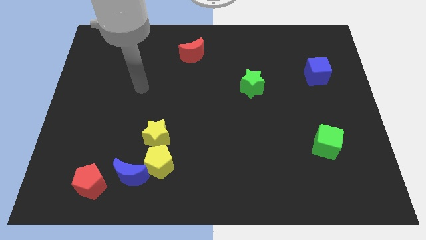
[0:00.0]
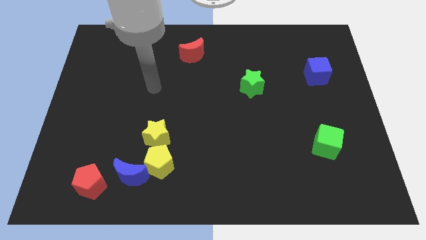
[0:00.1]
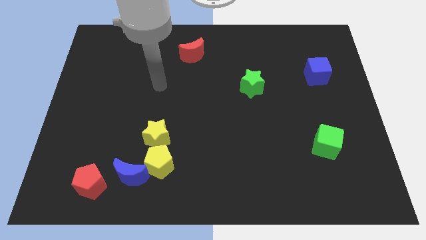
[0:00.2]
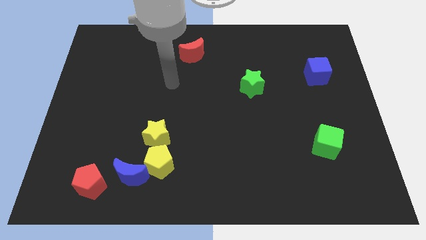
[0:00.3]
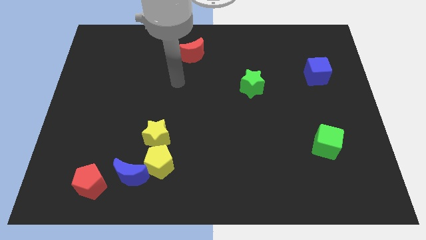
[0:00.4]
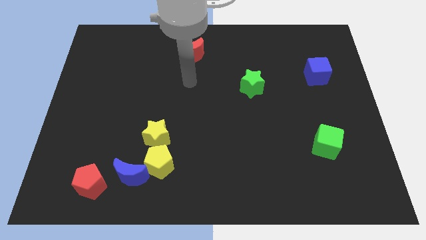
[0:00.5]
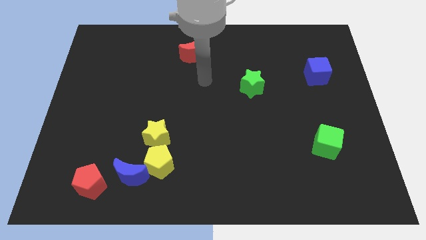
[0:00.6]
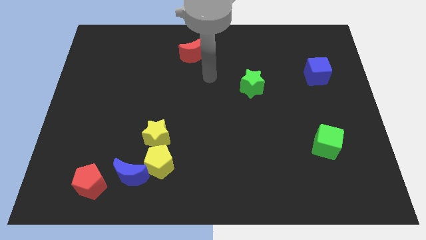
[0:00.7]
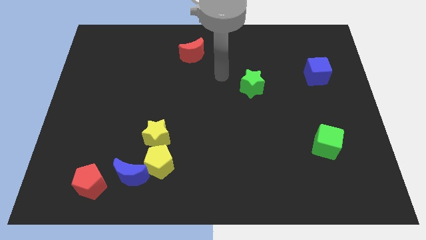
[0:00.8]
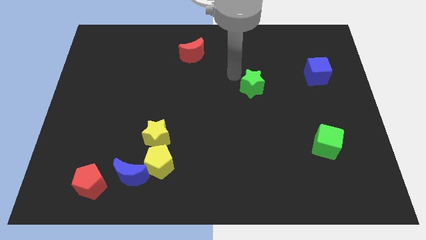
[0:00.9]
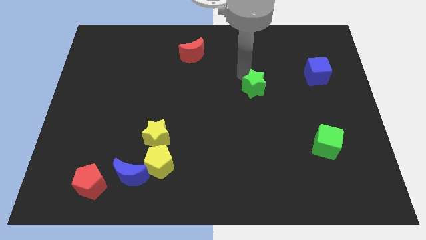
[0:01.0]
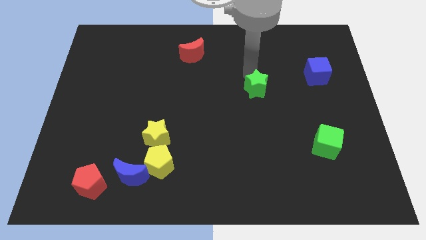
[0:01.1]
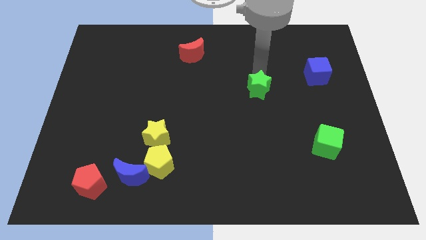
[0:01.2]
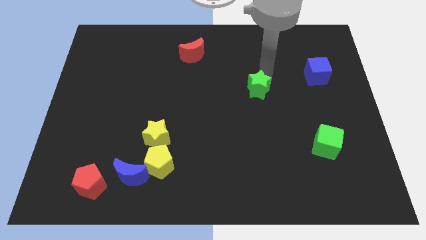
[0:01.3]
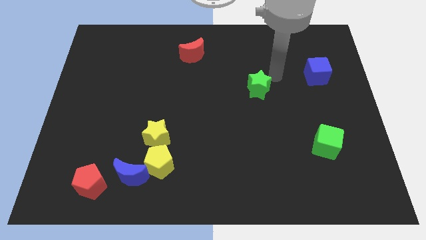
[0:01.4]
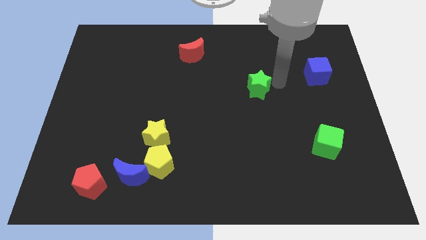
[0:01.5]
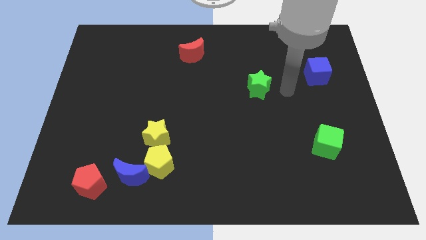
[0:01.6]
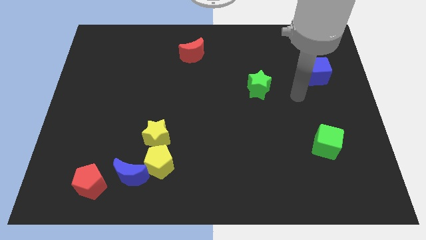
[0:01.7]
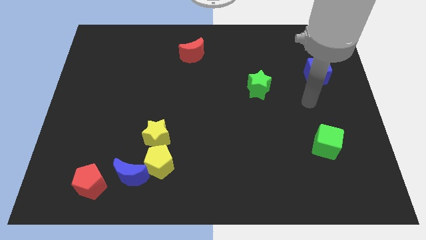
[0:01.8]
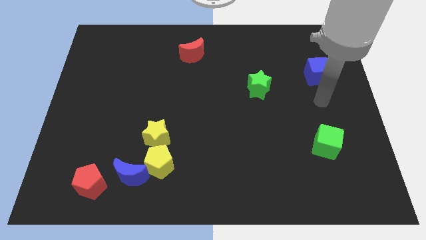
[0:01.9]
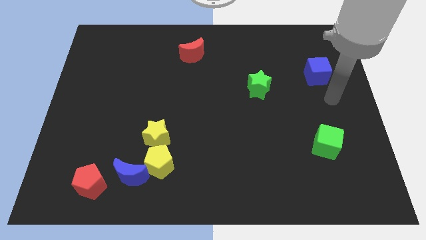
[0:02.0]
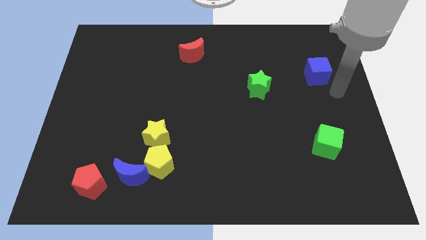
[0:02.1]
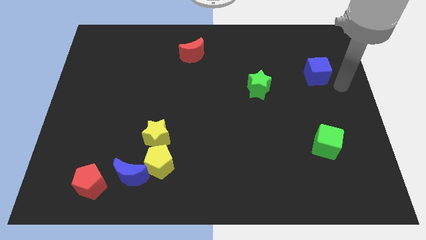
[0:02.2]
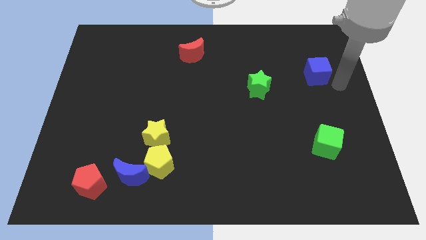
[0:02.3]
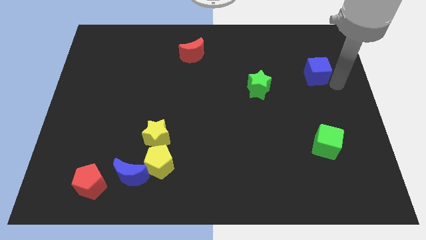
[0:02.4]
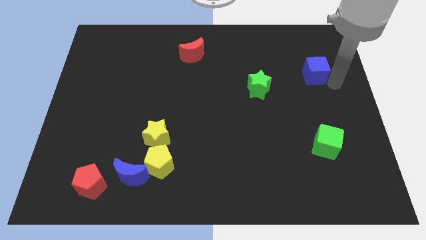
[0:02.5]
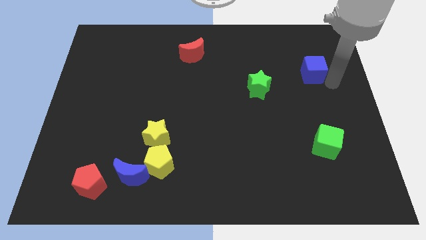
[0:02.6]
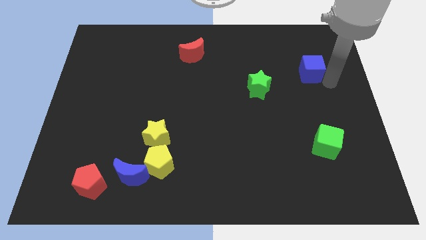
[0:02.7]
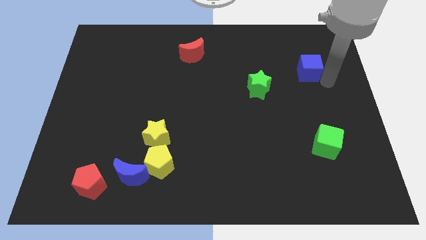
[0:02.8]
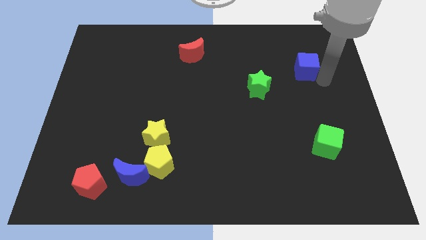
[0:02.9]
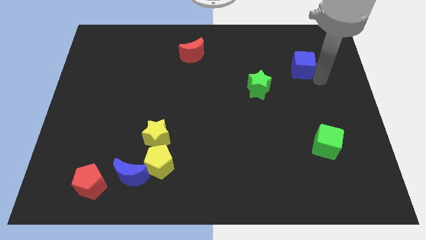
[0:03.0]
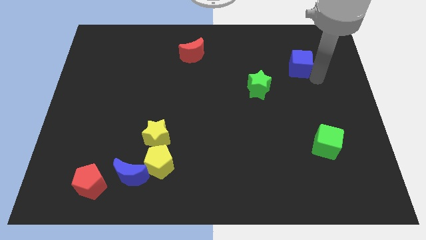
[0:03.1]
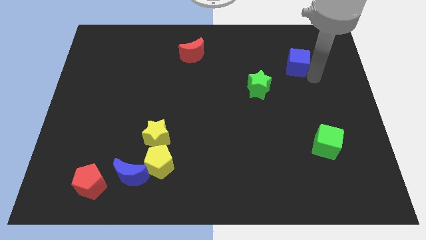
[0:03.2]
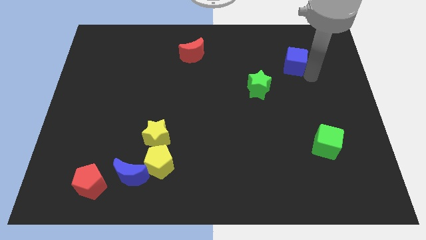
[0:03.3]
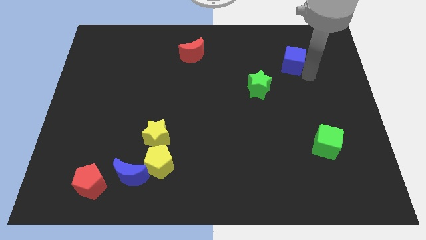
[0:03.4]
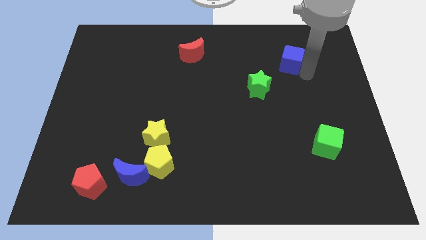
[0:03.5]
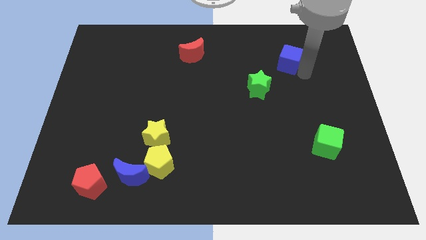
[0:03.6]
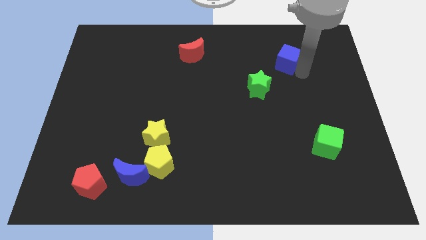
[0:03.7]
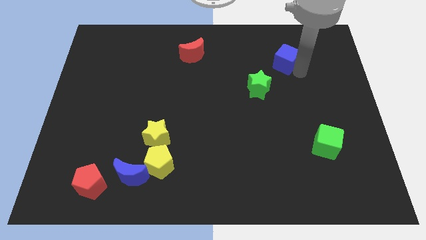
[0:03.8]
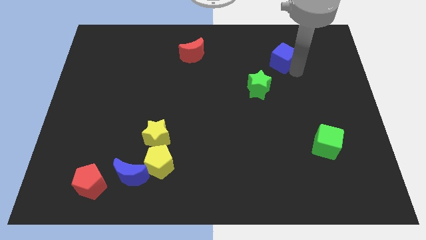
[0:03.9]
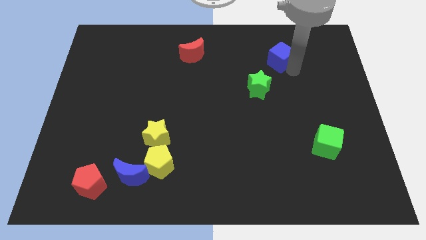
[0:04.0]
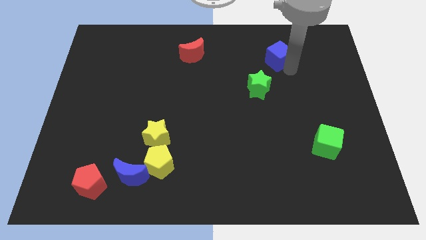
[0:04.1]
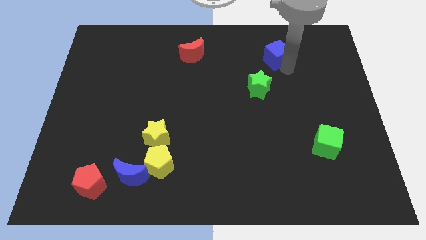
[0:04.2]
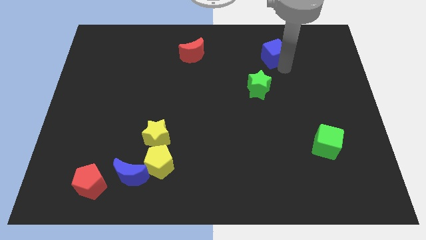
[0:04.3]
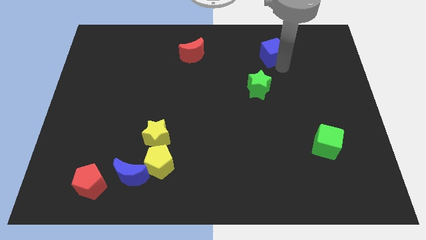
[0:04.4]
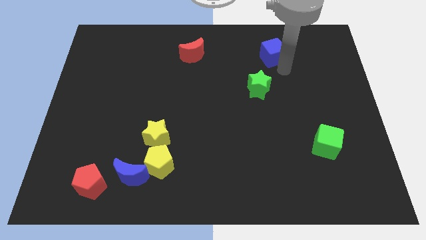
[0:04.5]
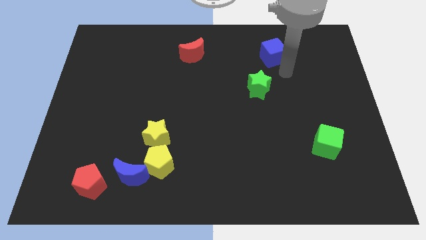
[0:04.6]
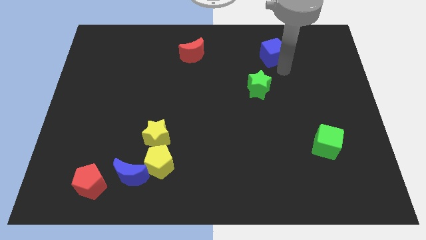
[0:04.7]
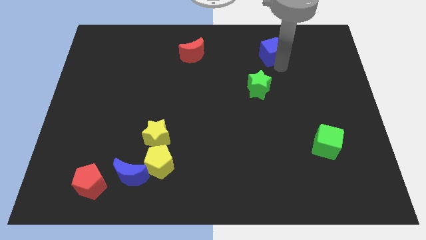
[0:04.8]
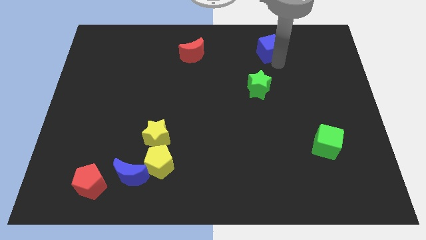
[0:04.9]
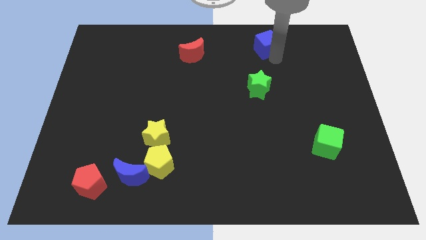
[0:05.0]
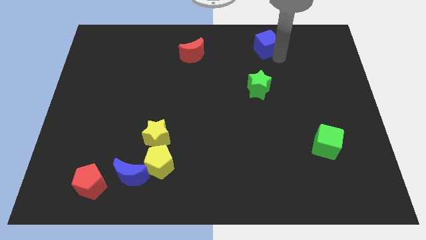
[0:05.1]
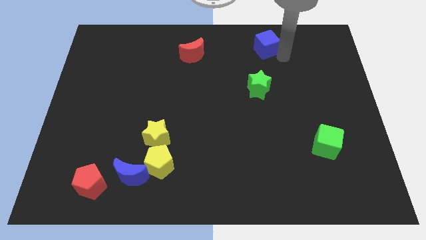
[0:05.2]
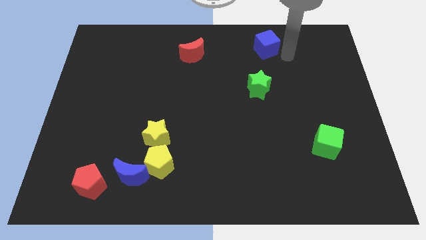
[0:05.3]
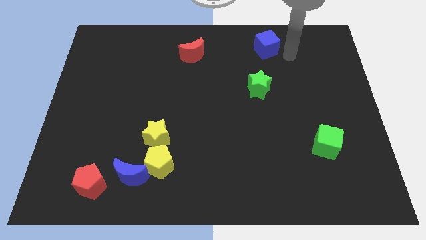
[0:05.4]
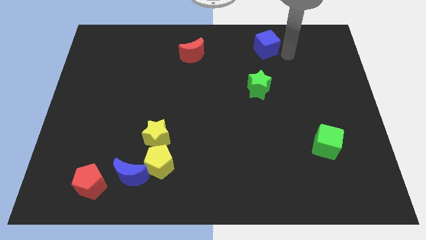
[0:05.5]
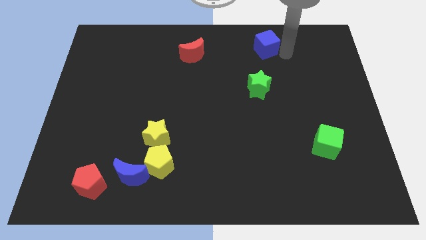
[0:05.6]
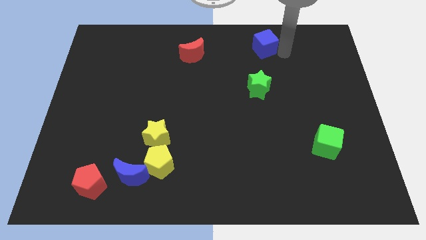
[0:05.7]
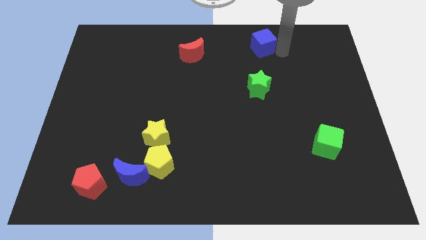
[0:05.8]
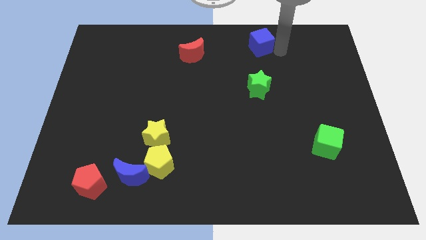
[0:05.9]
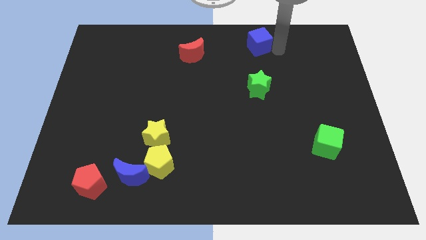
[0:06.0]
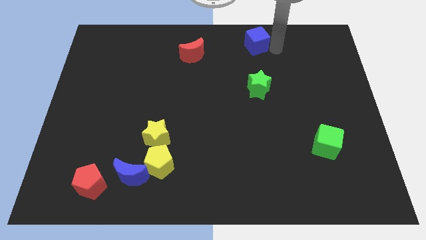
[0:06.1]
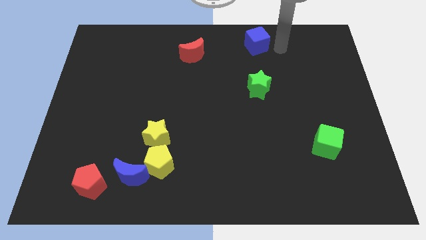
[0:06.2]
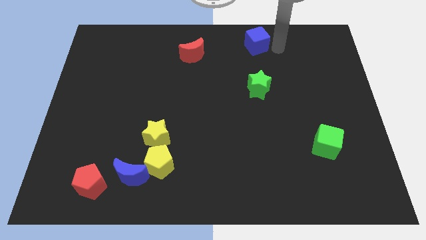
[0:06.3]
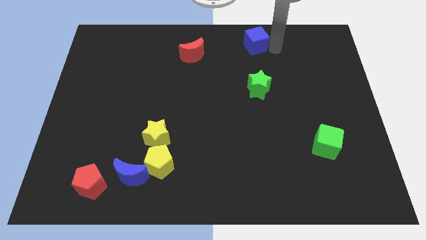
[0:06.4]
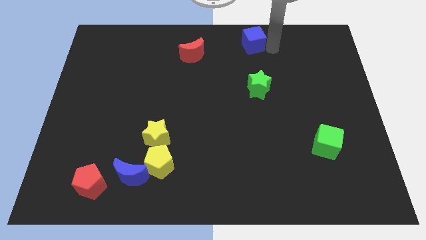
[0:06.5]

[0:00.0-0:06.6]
move the blue cube to the top
